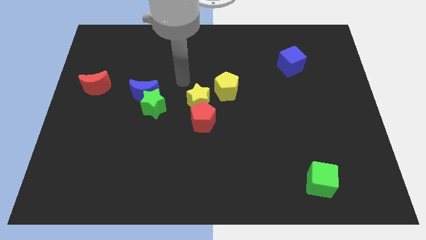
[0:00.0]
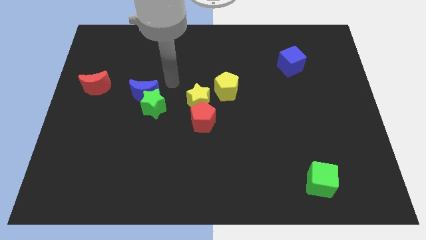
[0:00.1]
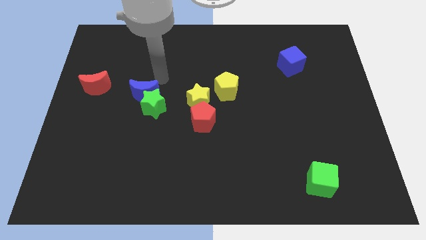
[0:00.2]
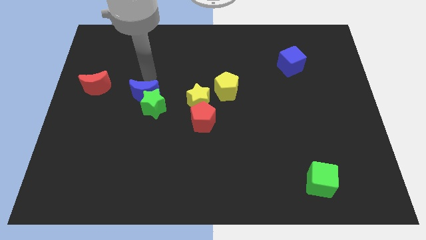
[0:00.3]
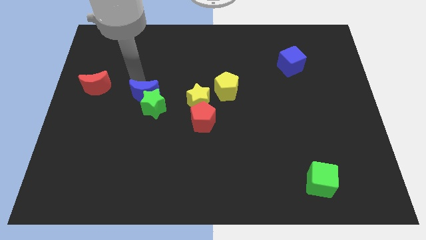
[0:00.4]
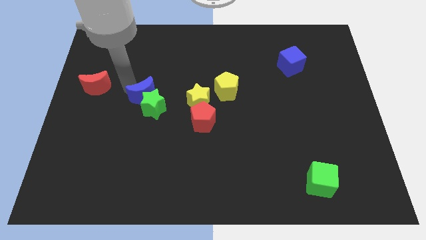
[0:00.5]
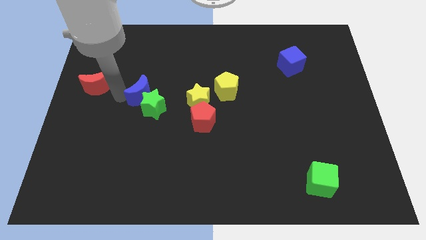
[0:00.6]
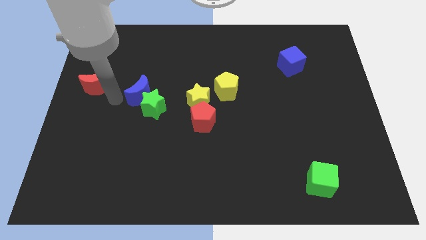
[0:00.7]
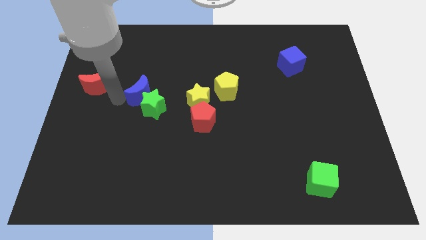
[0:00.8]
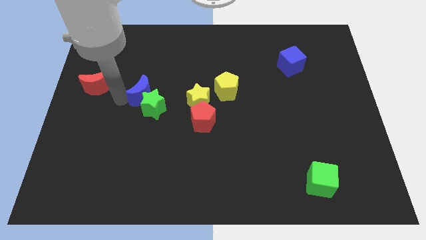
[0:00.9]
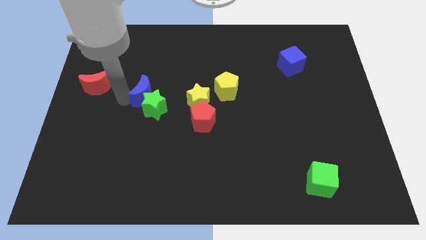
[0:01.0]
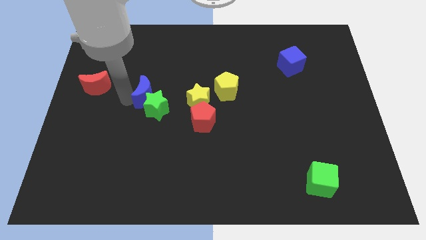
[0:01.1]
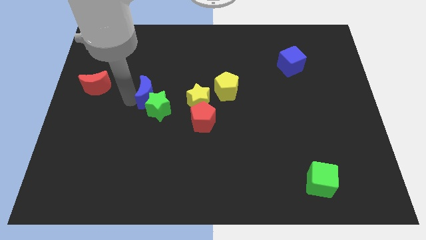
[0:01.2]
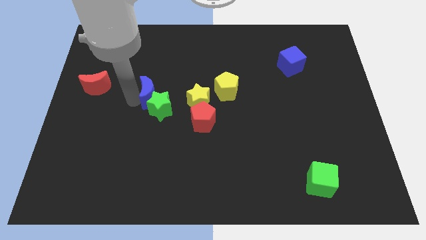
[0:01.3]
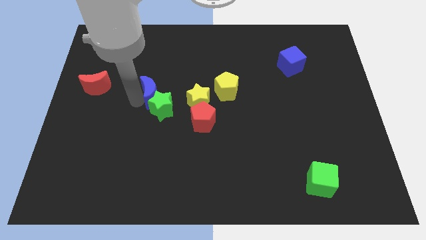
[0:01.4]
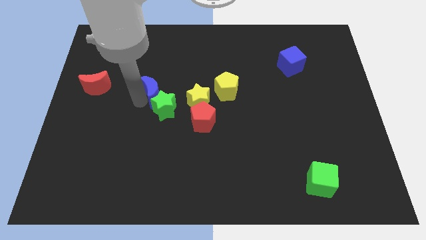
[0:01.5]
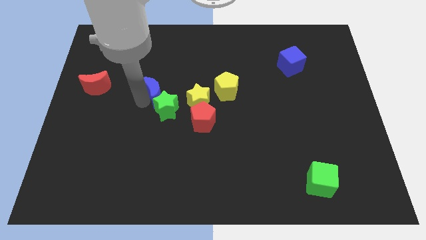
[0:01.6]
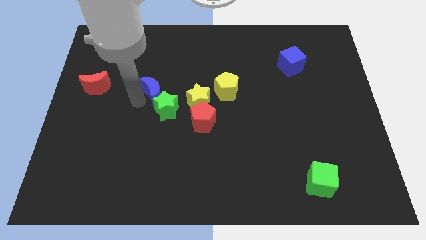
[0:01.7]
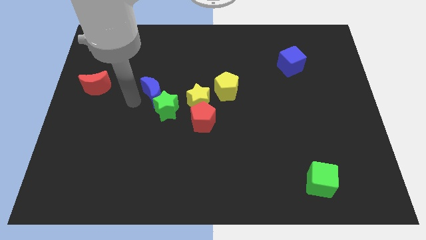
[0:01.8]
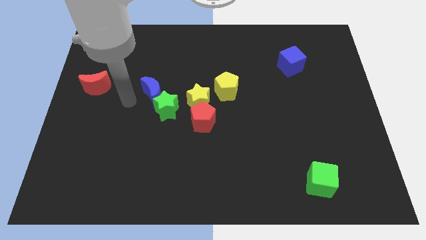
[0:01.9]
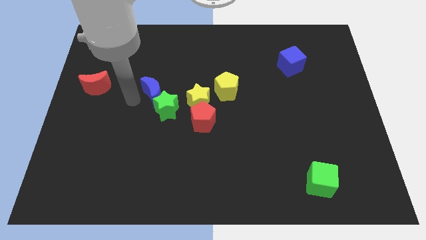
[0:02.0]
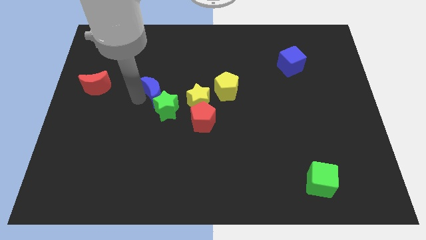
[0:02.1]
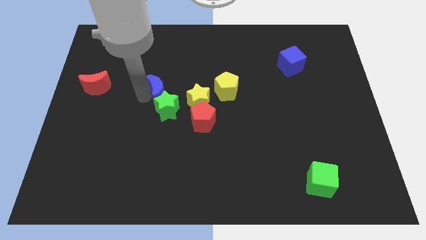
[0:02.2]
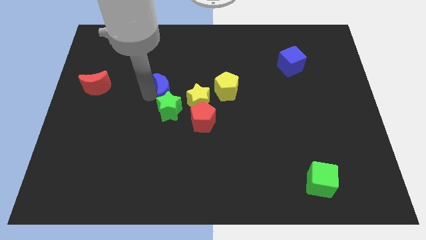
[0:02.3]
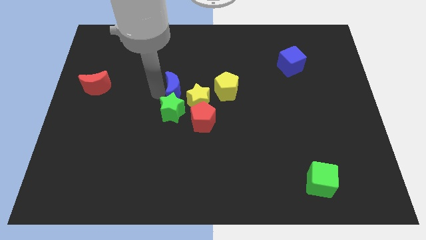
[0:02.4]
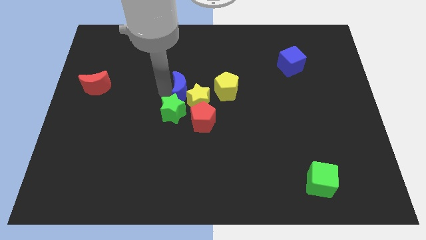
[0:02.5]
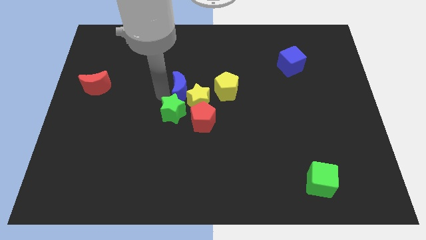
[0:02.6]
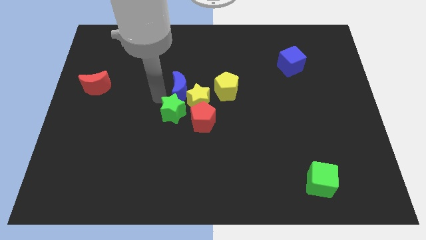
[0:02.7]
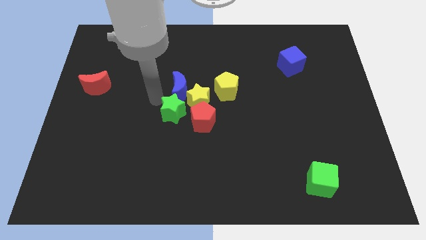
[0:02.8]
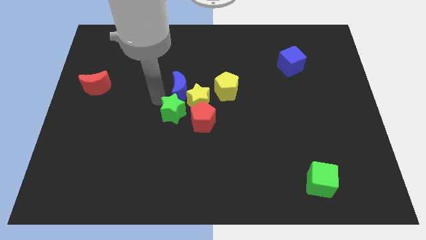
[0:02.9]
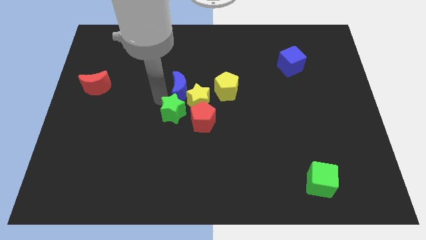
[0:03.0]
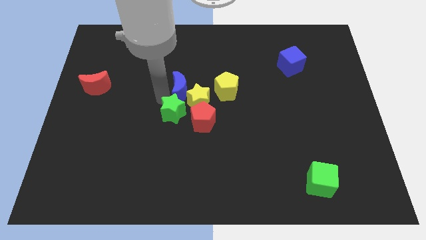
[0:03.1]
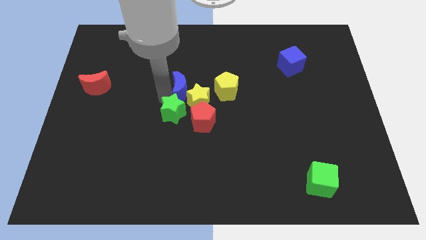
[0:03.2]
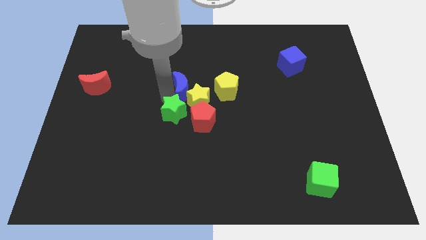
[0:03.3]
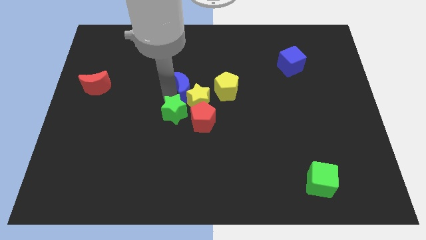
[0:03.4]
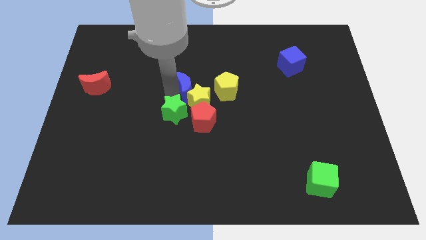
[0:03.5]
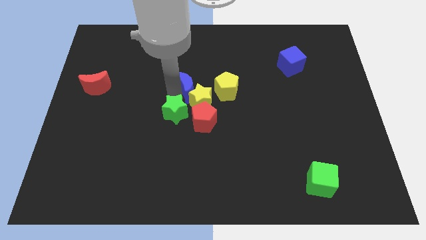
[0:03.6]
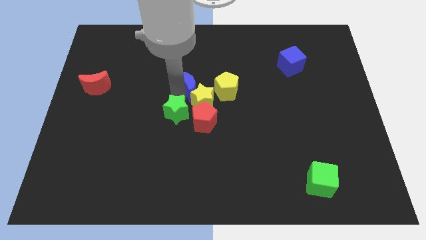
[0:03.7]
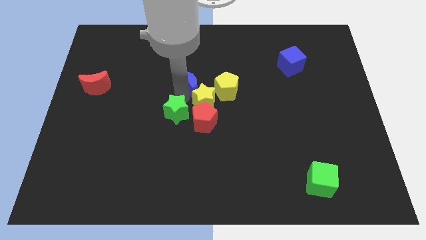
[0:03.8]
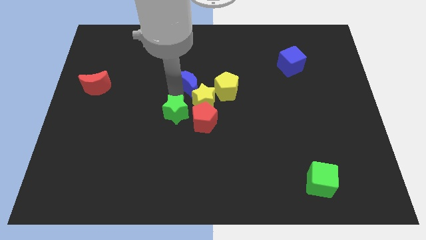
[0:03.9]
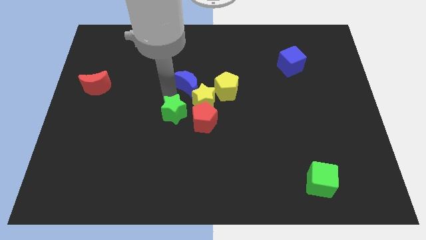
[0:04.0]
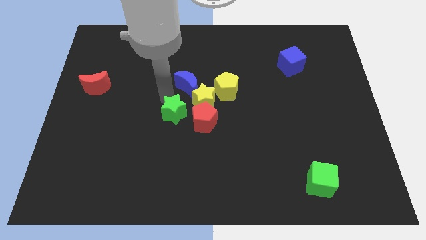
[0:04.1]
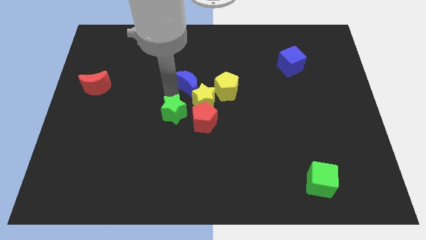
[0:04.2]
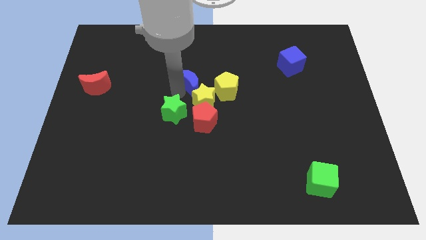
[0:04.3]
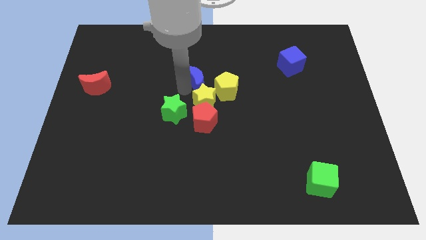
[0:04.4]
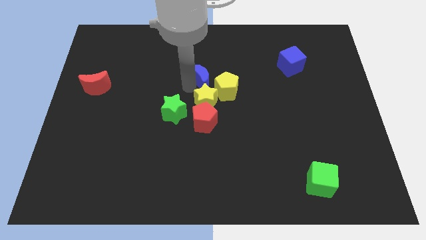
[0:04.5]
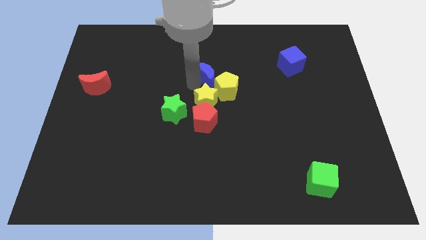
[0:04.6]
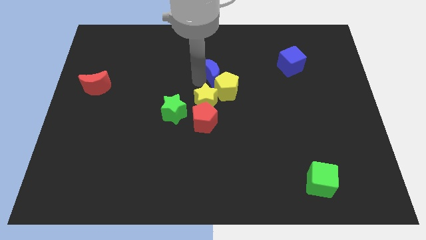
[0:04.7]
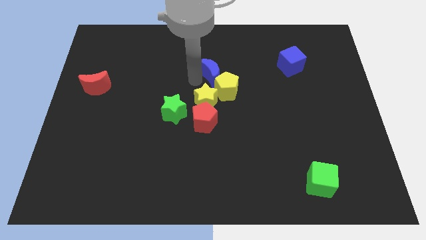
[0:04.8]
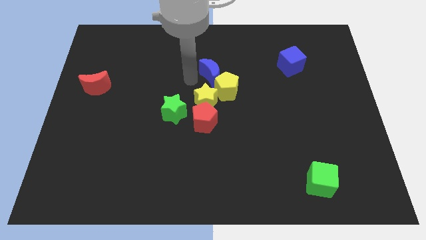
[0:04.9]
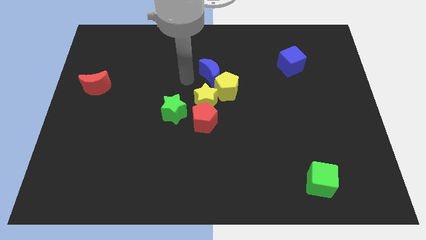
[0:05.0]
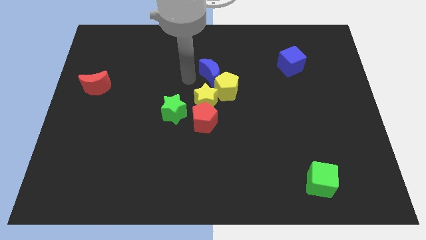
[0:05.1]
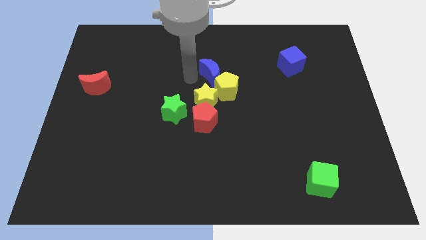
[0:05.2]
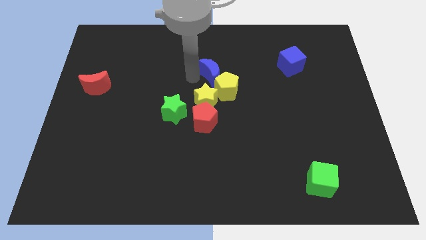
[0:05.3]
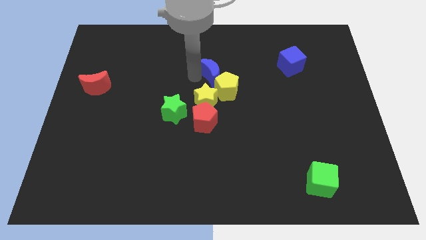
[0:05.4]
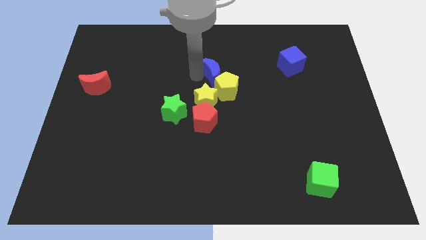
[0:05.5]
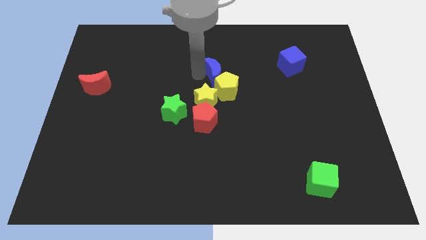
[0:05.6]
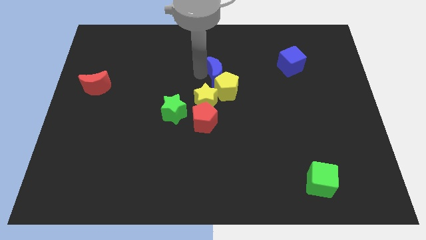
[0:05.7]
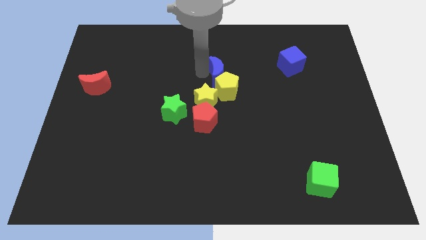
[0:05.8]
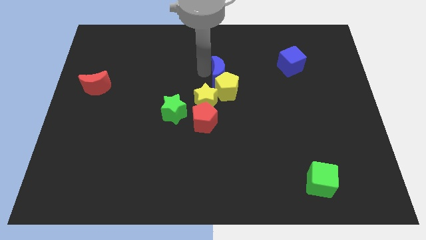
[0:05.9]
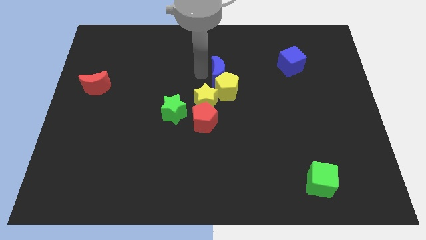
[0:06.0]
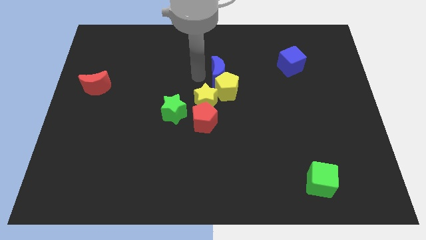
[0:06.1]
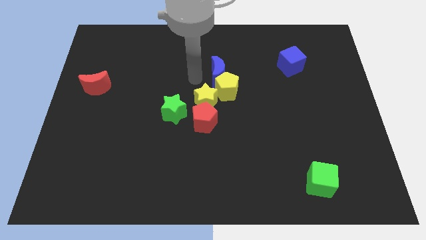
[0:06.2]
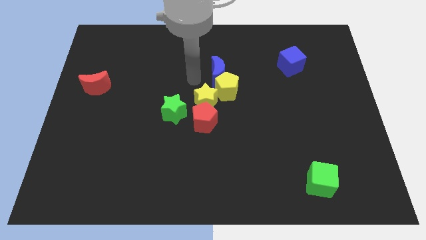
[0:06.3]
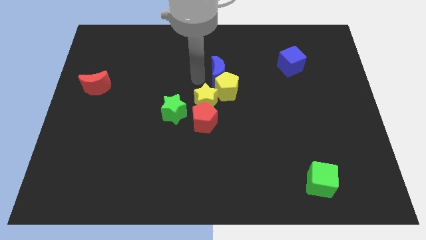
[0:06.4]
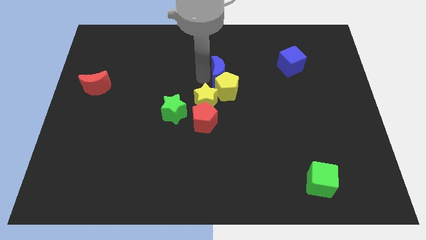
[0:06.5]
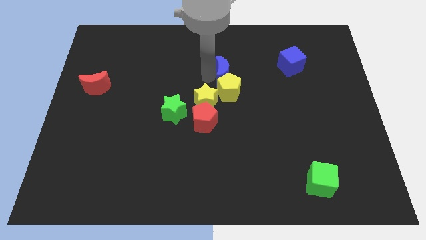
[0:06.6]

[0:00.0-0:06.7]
push the blue moon to the top right of the yellow pentagon
